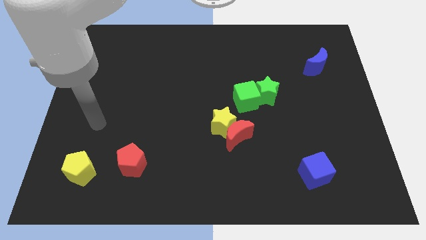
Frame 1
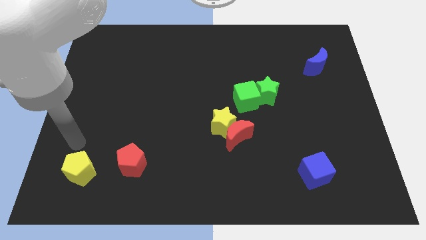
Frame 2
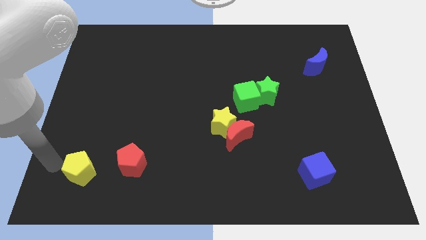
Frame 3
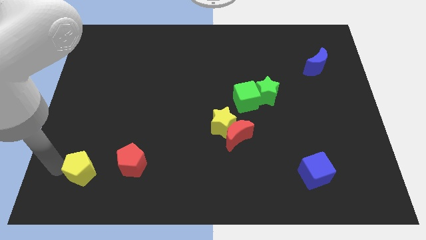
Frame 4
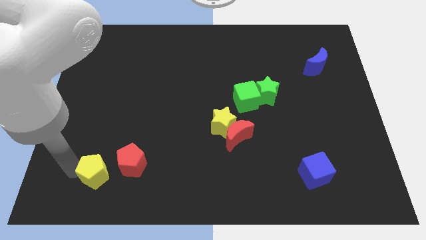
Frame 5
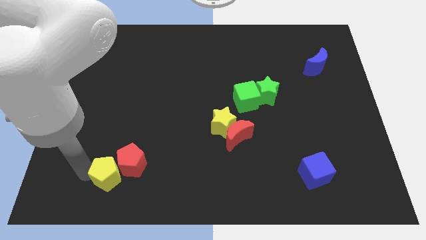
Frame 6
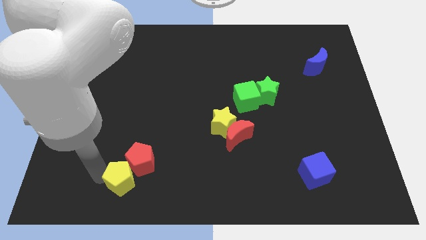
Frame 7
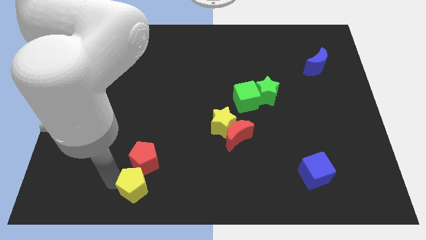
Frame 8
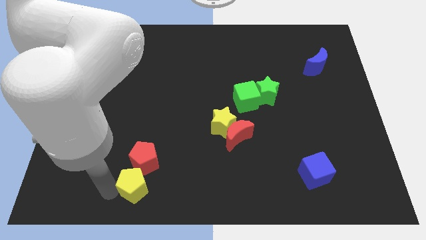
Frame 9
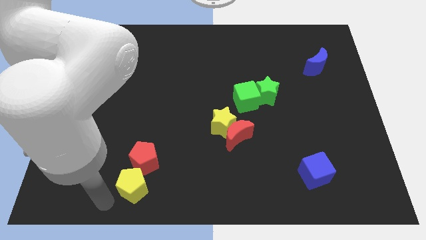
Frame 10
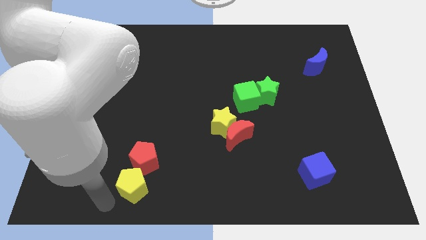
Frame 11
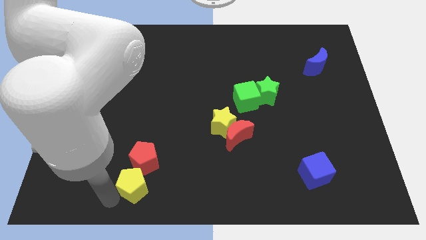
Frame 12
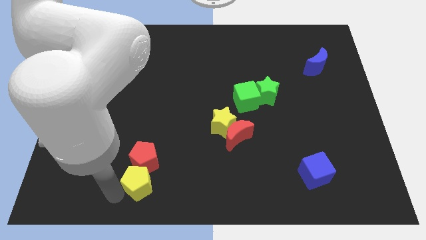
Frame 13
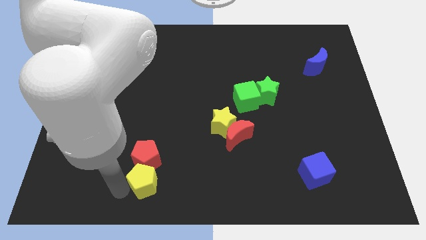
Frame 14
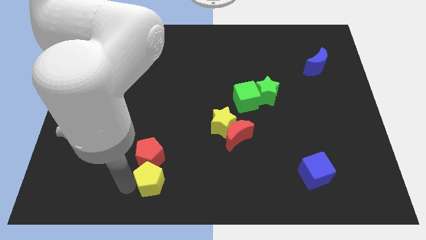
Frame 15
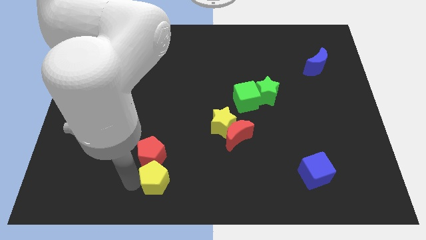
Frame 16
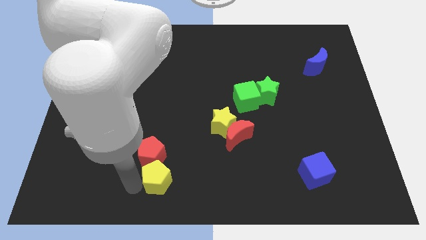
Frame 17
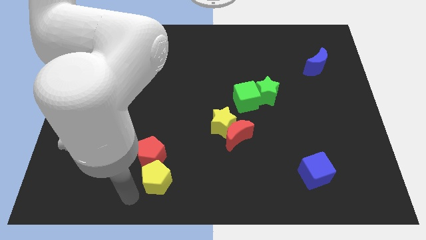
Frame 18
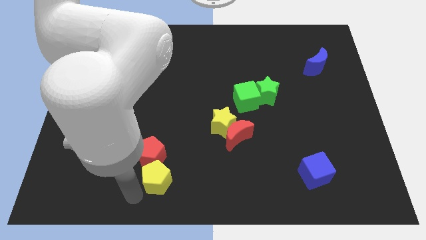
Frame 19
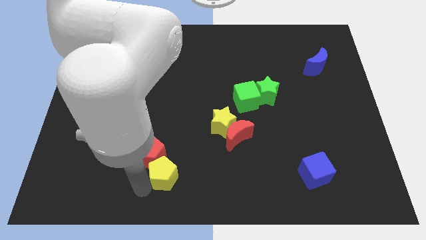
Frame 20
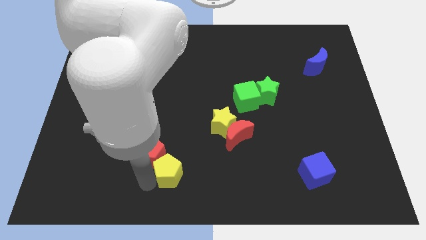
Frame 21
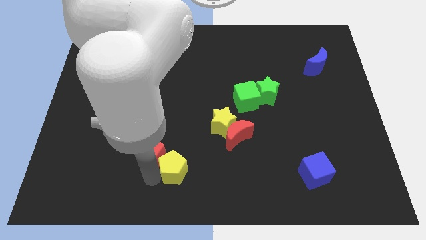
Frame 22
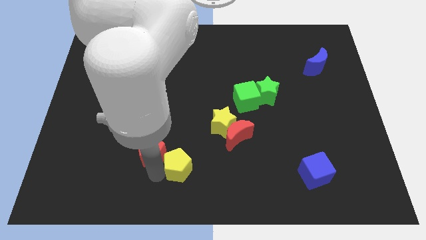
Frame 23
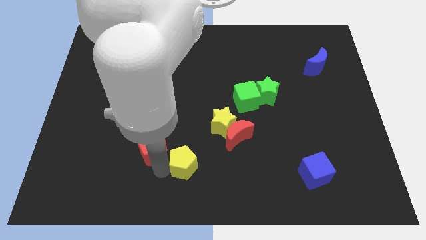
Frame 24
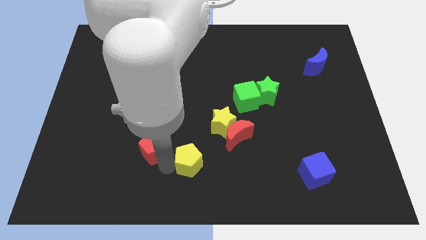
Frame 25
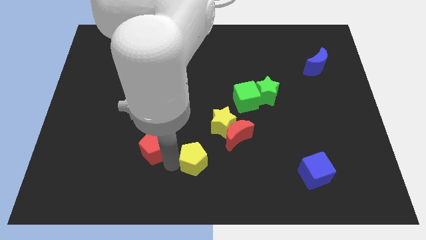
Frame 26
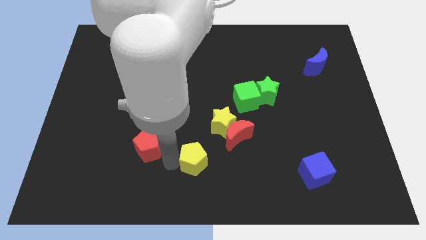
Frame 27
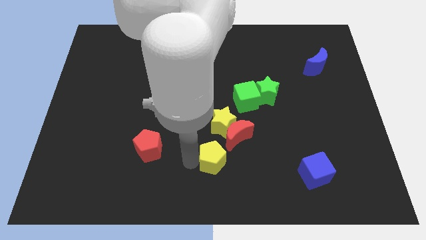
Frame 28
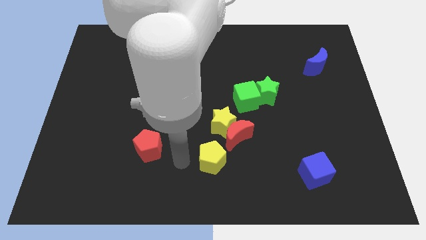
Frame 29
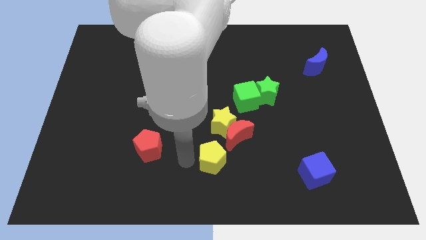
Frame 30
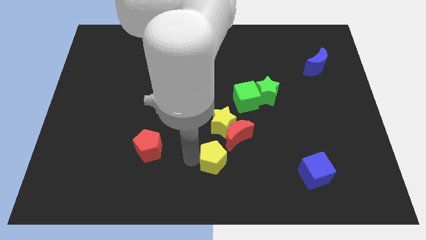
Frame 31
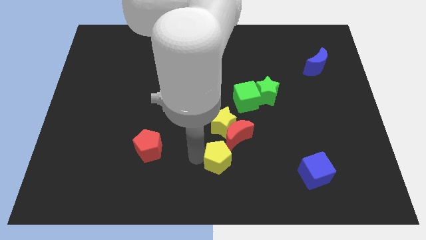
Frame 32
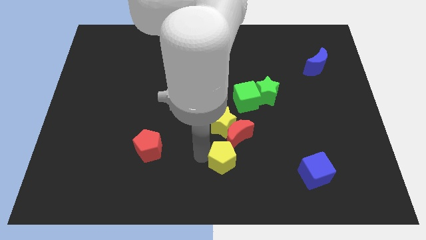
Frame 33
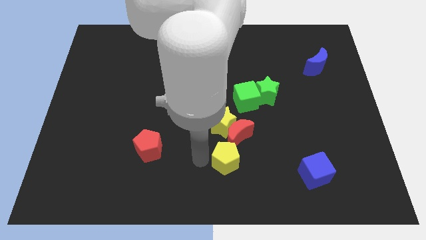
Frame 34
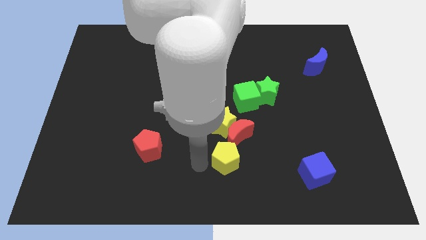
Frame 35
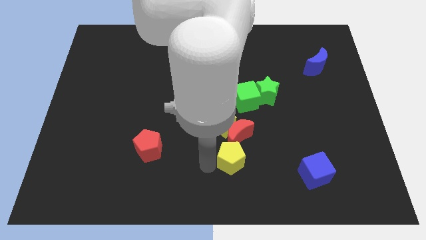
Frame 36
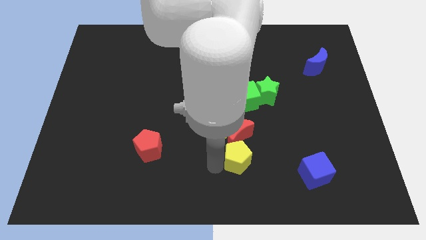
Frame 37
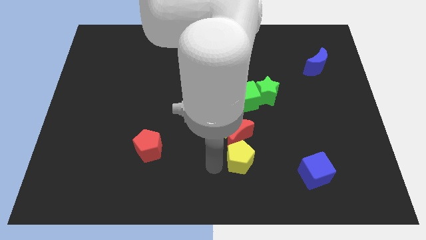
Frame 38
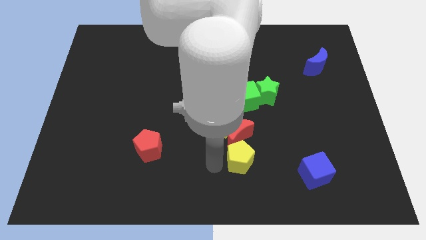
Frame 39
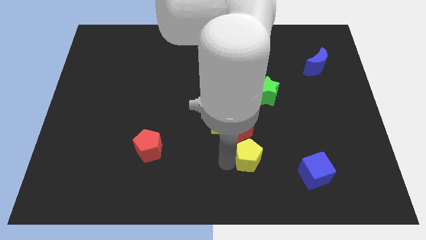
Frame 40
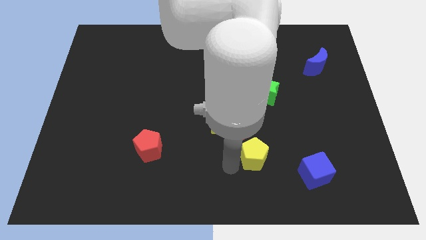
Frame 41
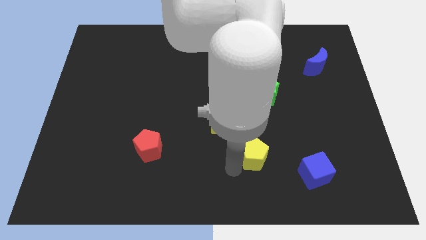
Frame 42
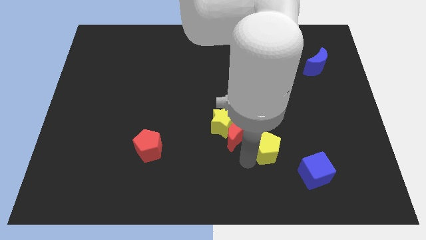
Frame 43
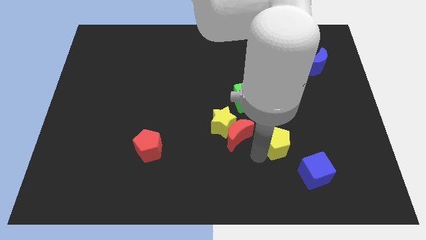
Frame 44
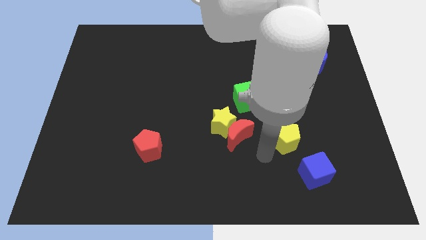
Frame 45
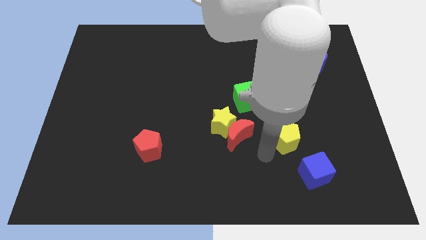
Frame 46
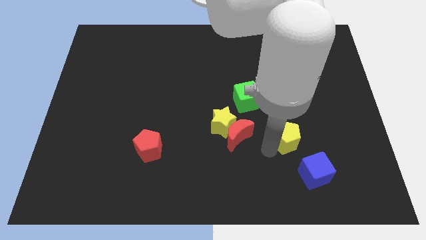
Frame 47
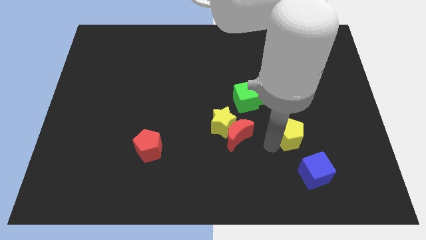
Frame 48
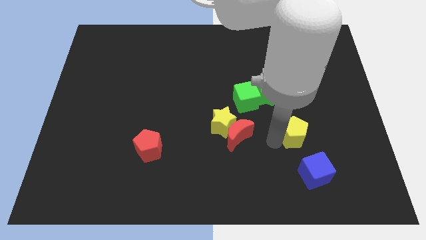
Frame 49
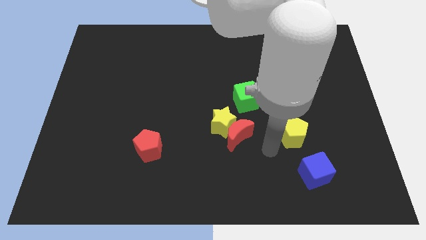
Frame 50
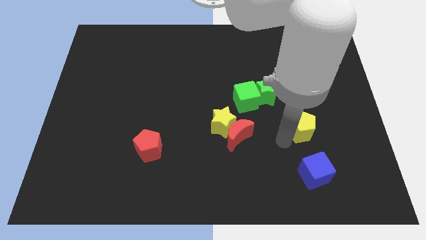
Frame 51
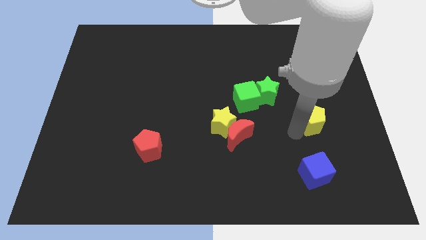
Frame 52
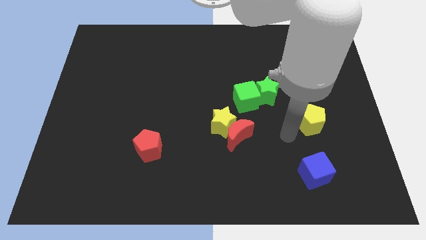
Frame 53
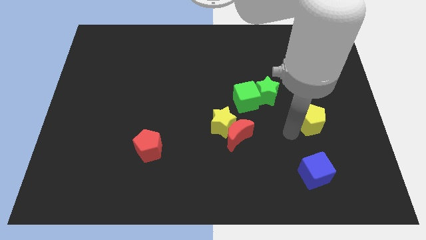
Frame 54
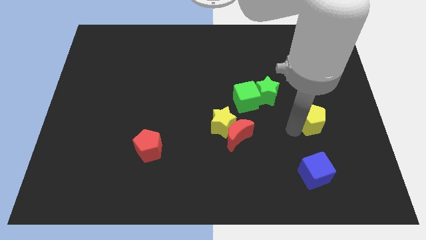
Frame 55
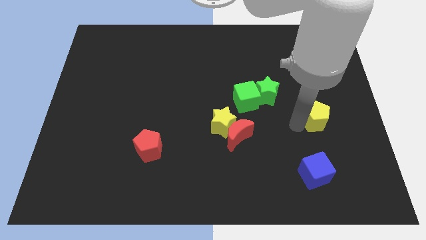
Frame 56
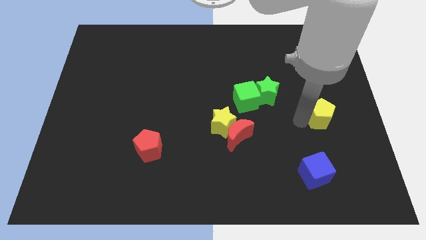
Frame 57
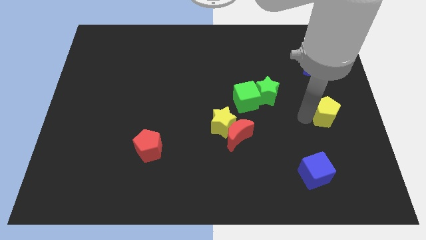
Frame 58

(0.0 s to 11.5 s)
push the yellow pentagon to the center right

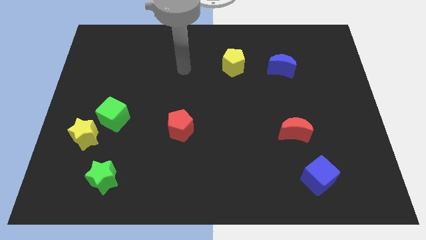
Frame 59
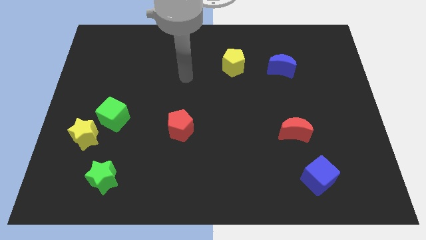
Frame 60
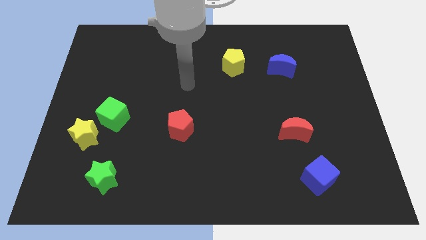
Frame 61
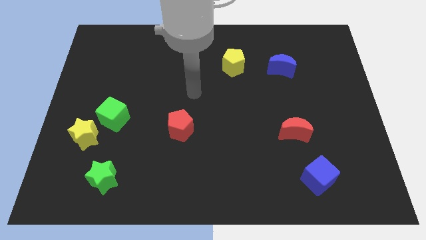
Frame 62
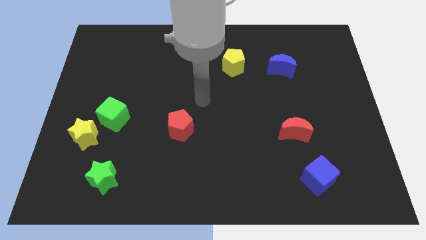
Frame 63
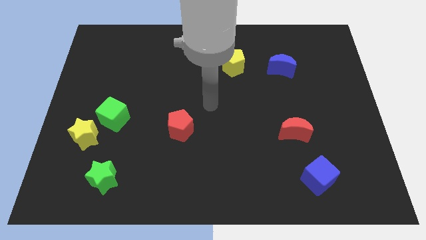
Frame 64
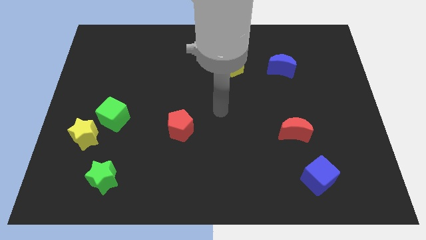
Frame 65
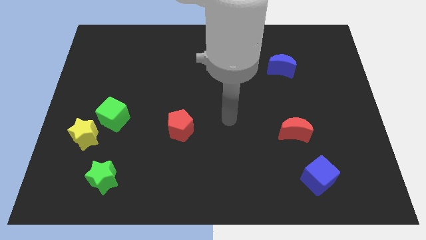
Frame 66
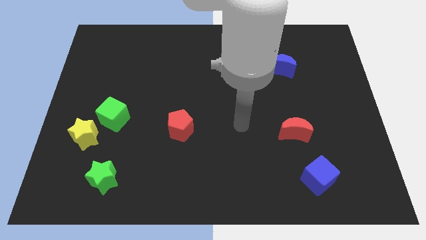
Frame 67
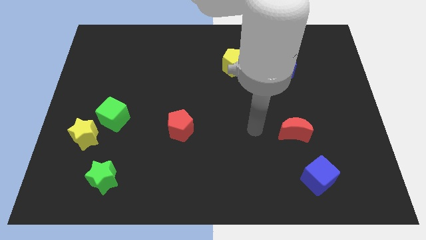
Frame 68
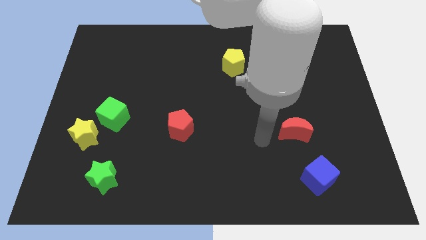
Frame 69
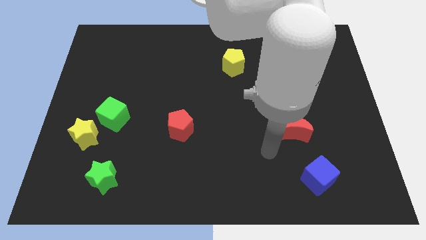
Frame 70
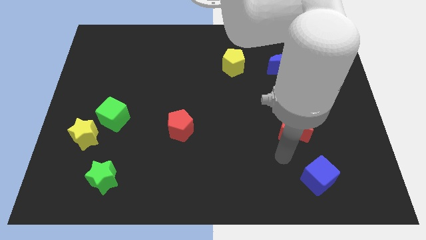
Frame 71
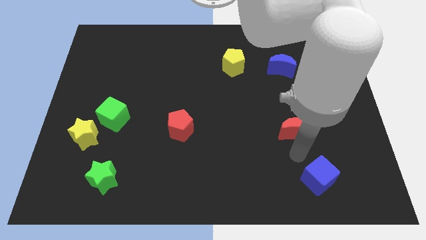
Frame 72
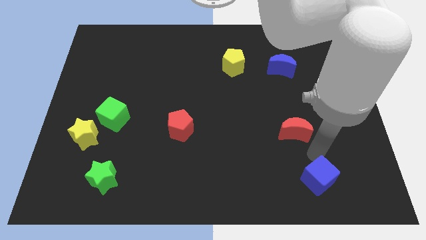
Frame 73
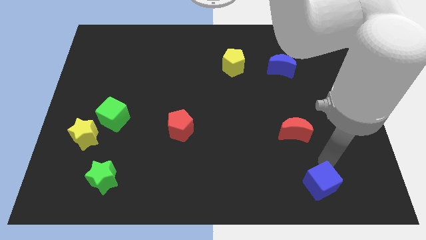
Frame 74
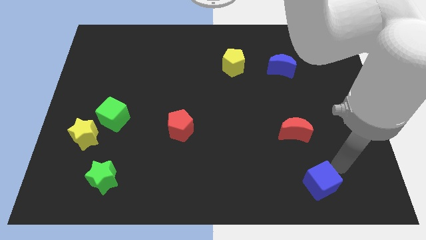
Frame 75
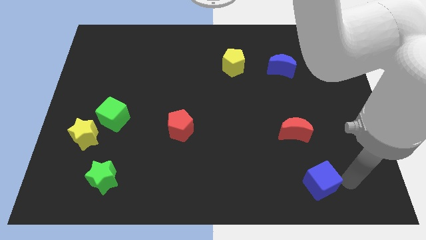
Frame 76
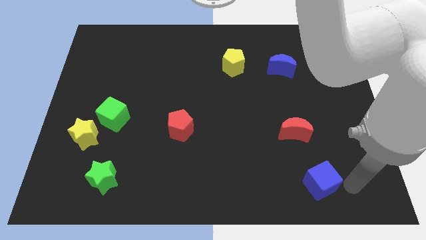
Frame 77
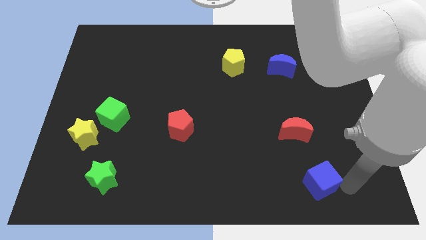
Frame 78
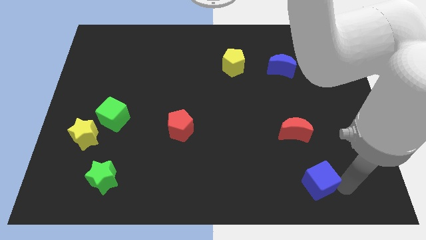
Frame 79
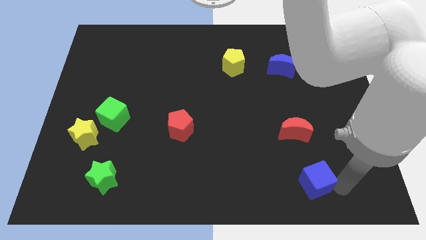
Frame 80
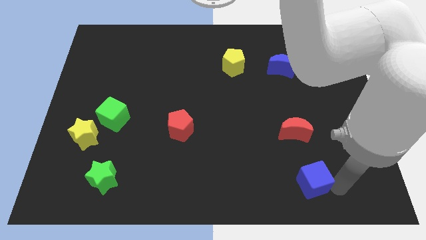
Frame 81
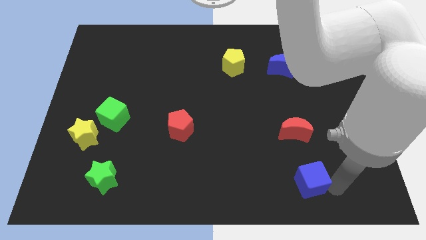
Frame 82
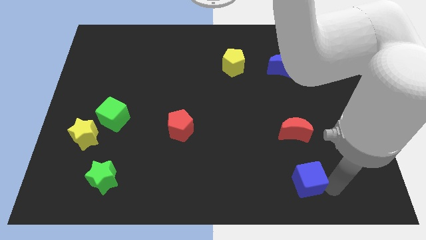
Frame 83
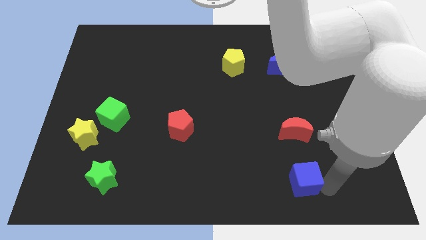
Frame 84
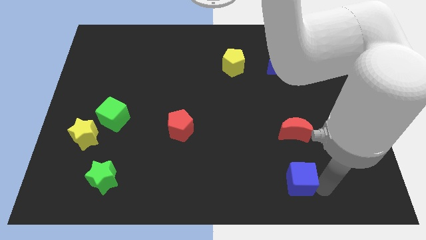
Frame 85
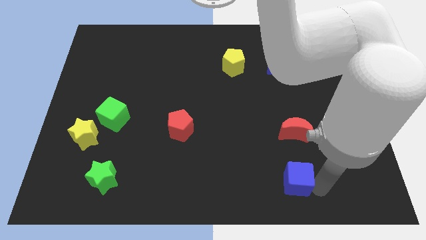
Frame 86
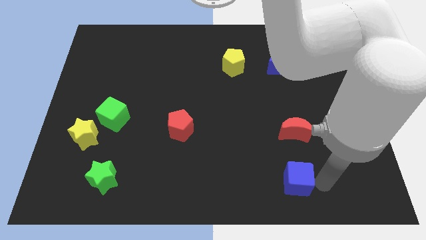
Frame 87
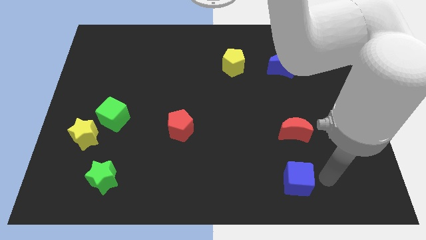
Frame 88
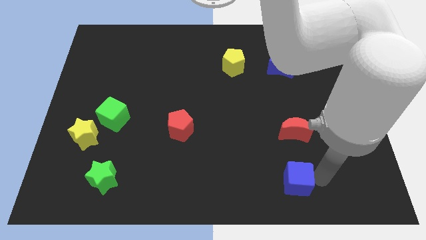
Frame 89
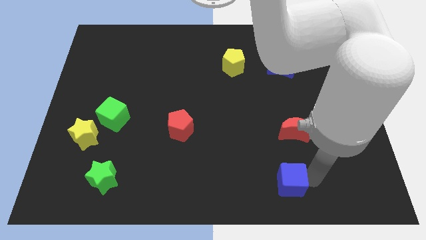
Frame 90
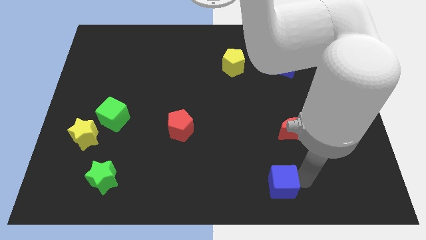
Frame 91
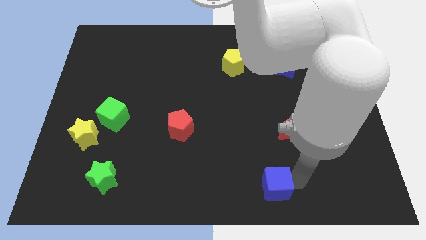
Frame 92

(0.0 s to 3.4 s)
slide the blue cube to the bottom side
